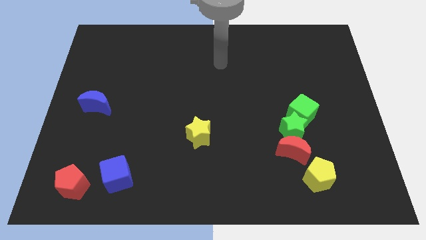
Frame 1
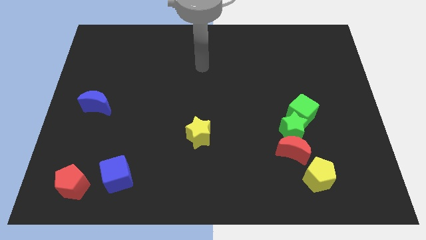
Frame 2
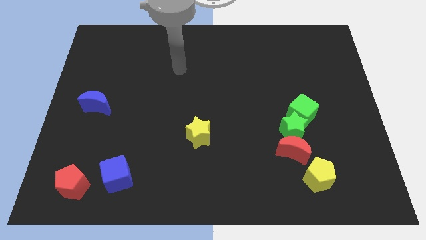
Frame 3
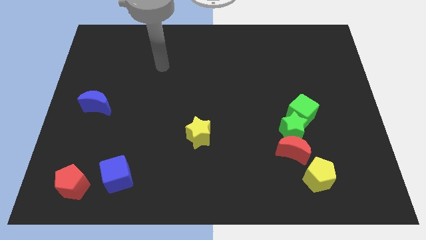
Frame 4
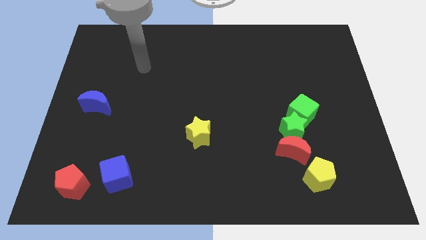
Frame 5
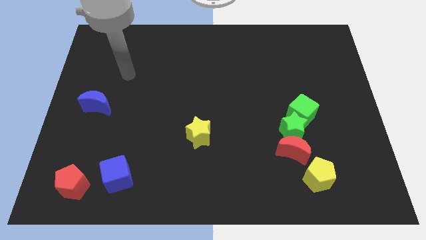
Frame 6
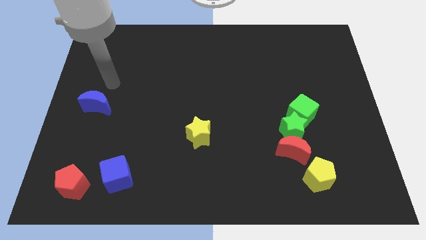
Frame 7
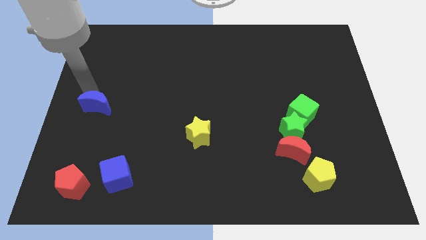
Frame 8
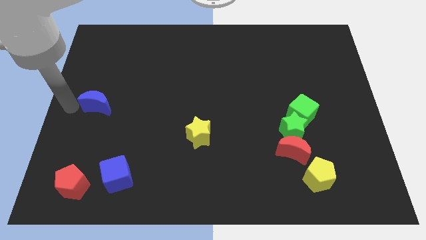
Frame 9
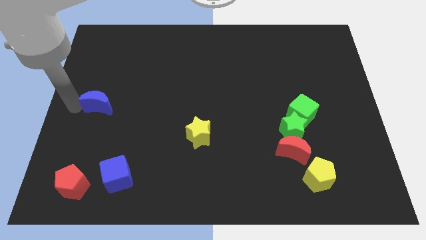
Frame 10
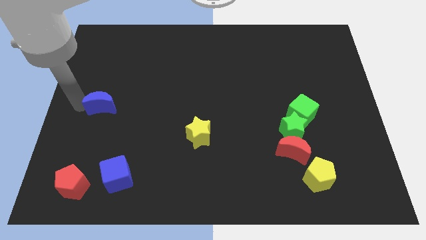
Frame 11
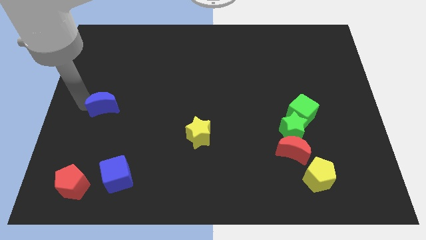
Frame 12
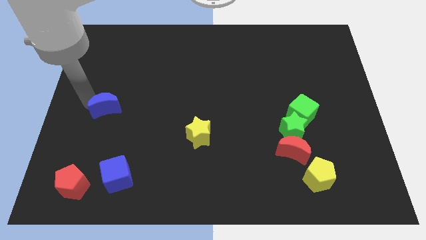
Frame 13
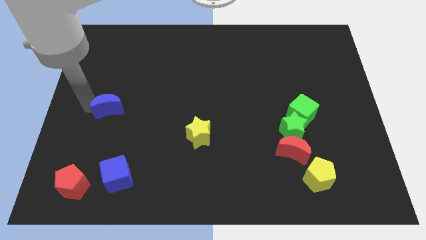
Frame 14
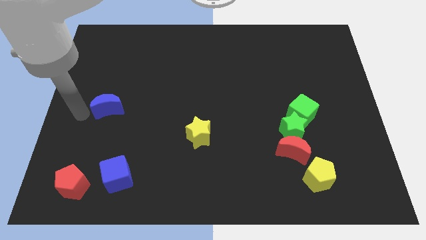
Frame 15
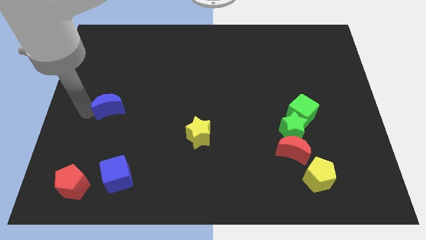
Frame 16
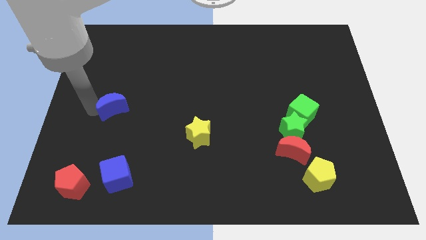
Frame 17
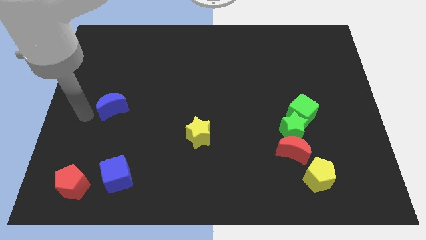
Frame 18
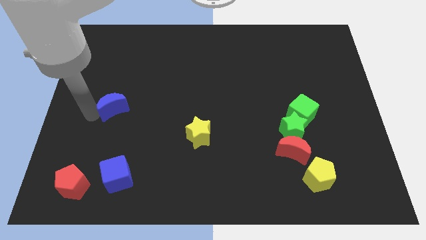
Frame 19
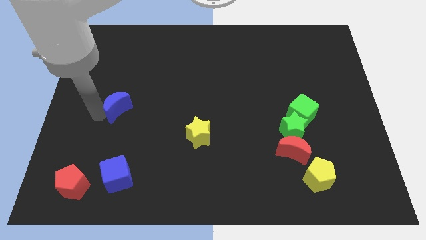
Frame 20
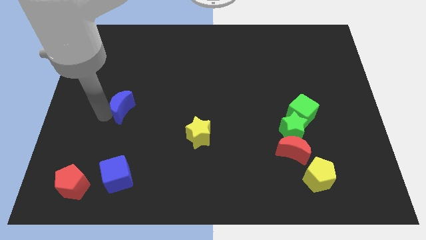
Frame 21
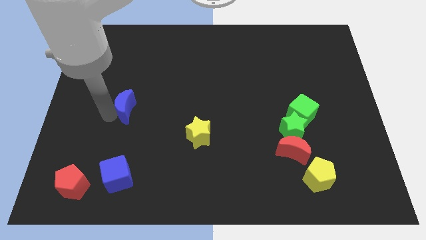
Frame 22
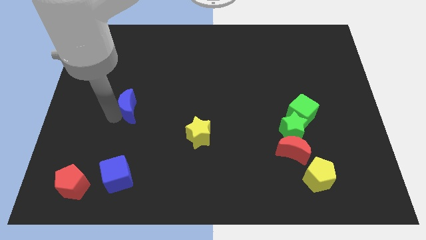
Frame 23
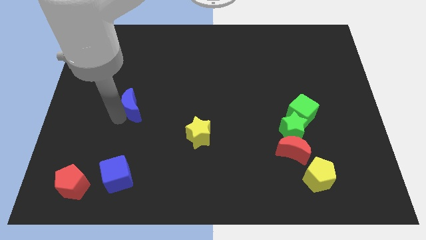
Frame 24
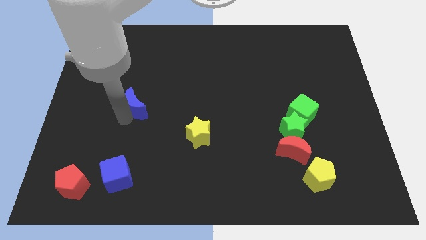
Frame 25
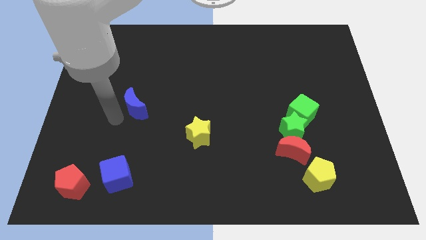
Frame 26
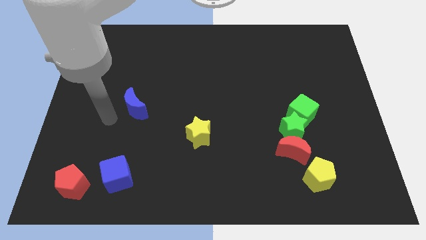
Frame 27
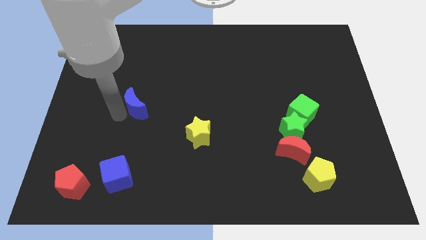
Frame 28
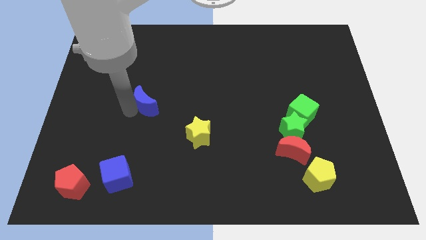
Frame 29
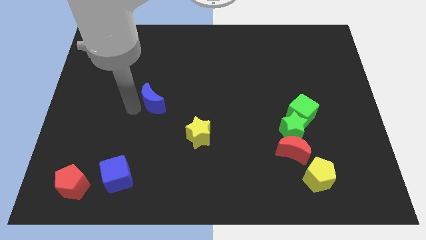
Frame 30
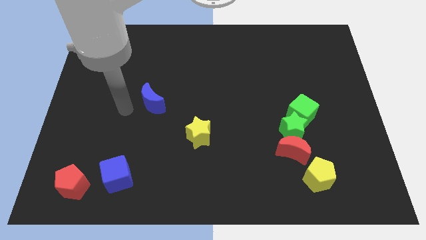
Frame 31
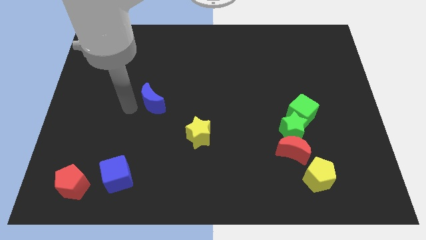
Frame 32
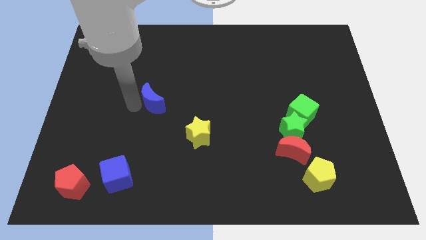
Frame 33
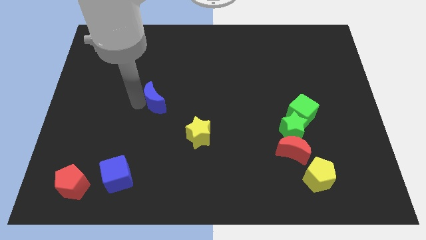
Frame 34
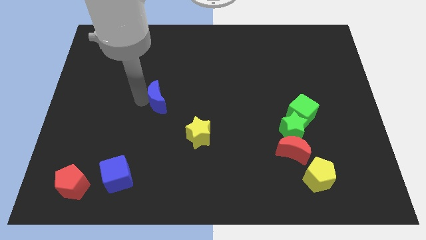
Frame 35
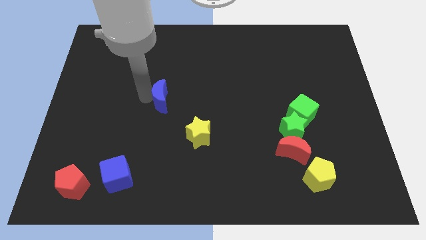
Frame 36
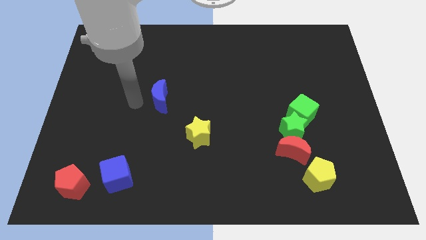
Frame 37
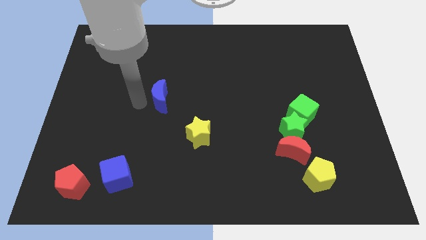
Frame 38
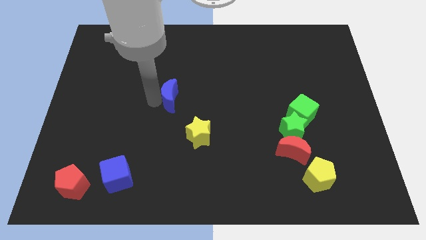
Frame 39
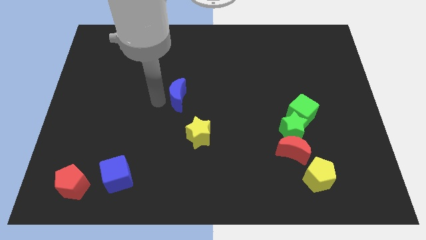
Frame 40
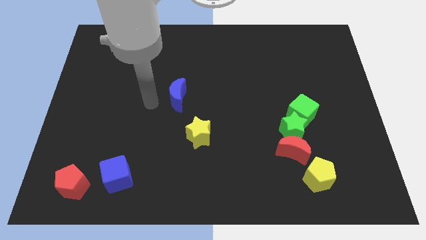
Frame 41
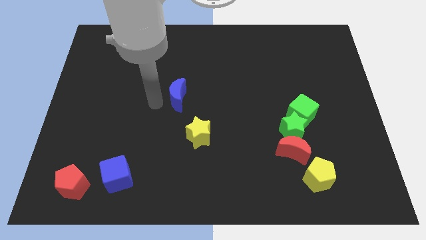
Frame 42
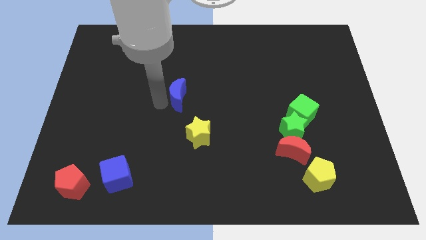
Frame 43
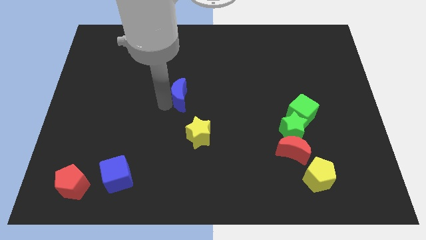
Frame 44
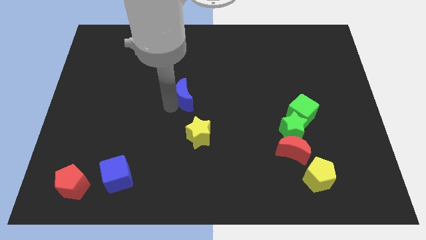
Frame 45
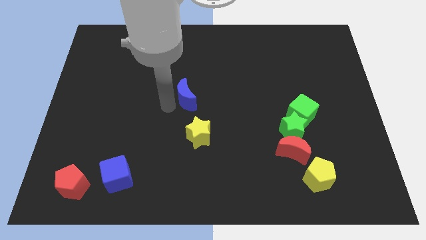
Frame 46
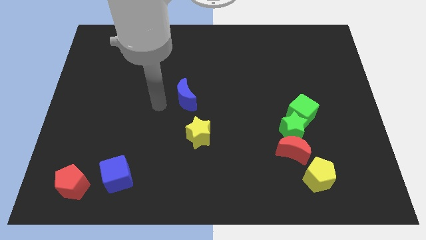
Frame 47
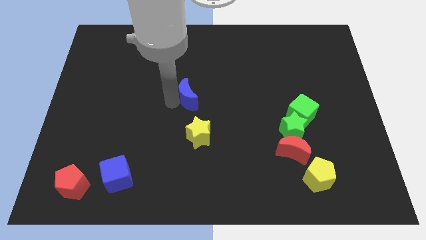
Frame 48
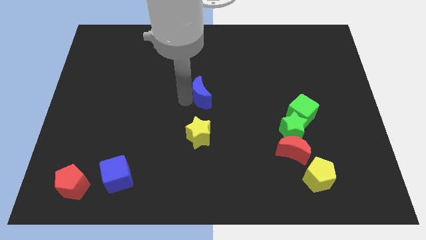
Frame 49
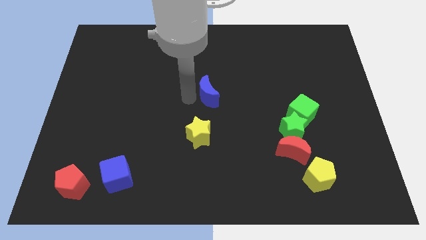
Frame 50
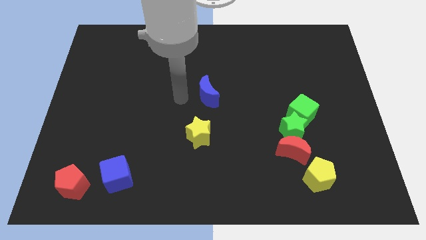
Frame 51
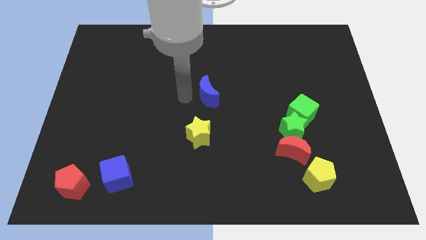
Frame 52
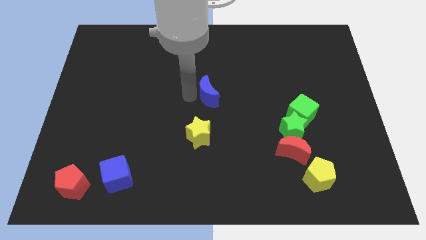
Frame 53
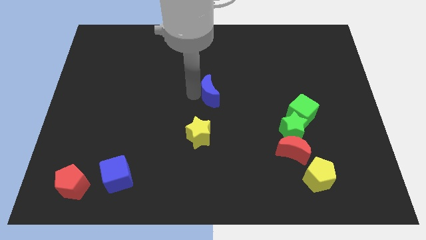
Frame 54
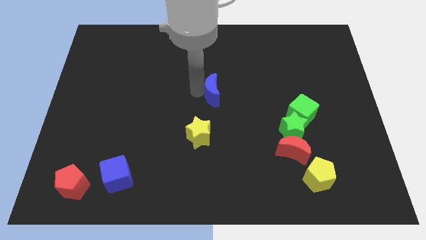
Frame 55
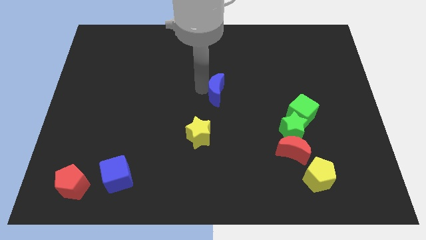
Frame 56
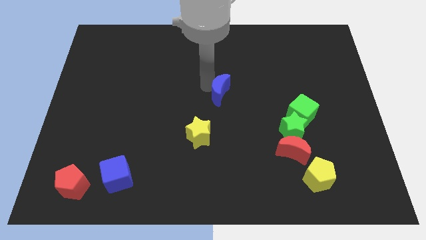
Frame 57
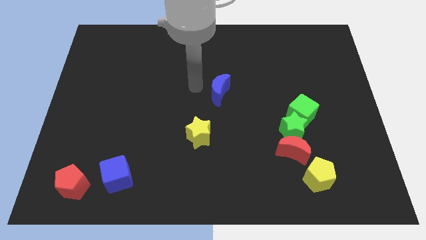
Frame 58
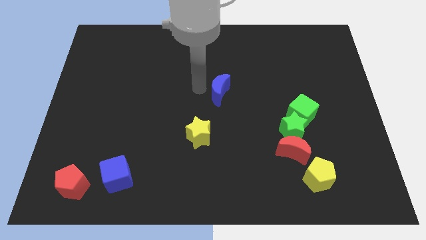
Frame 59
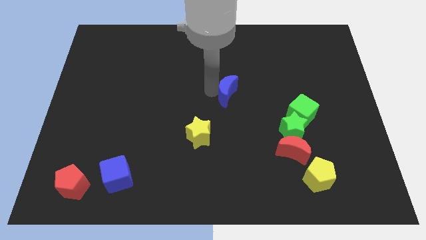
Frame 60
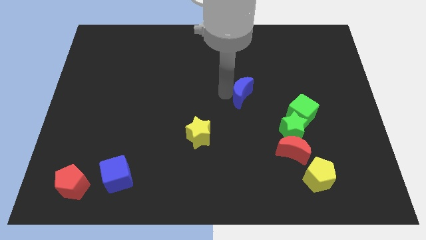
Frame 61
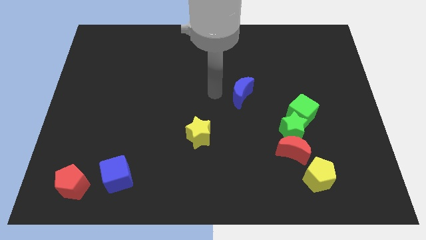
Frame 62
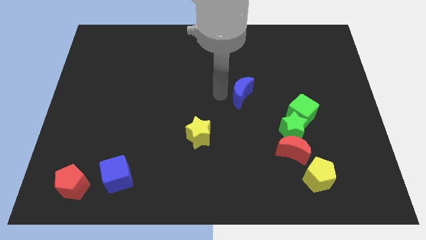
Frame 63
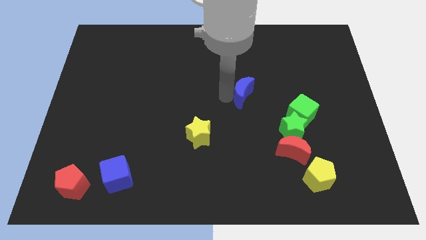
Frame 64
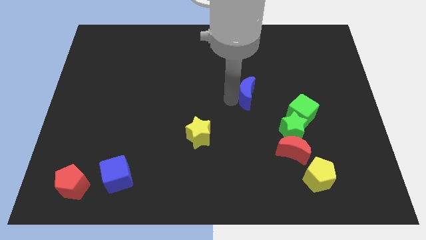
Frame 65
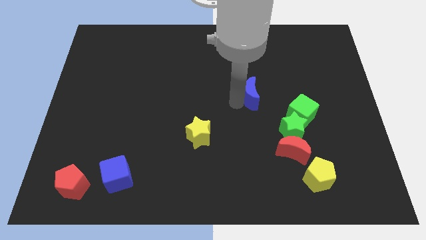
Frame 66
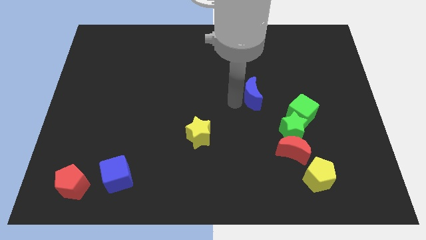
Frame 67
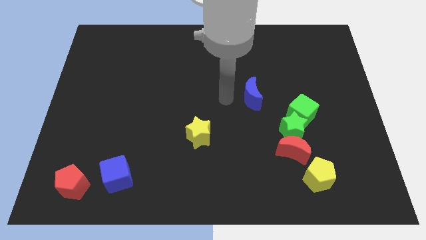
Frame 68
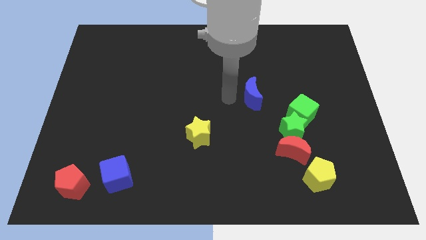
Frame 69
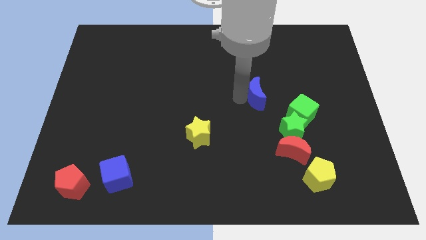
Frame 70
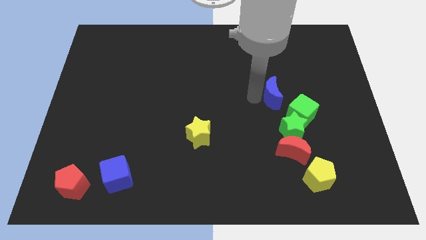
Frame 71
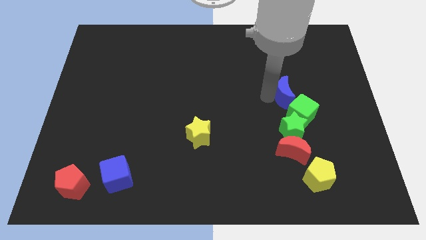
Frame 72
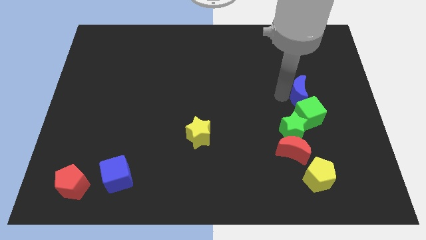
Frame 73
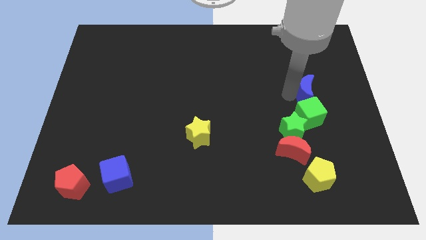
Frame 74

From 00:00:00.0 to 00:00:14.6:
slide the blue moon to the top right of the green cube
